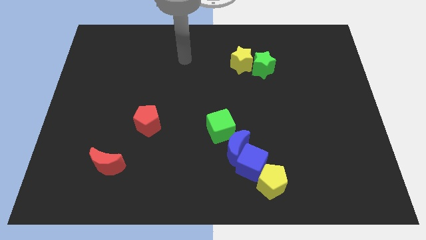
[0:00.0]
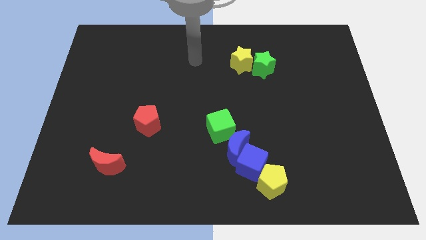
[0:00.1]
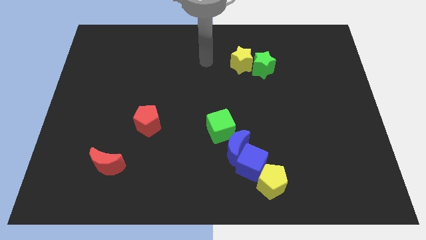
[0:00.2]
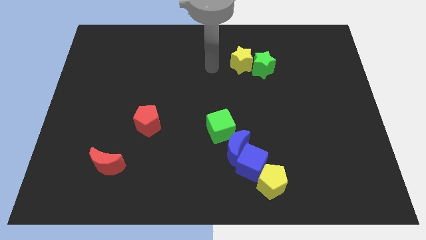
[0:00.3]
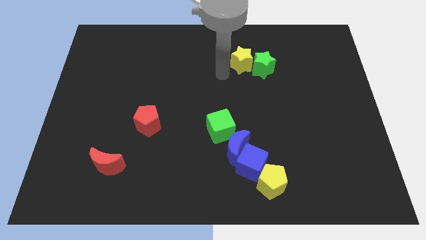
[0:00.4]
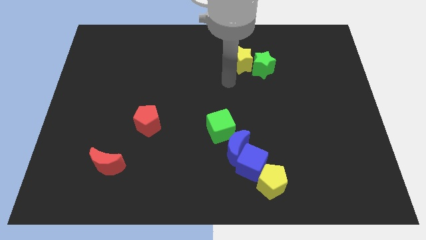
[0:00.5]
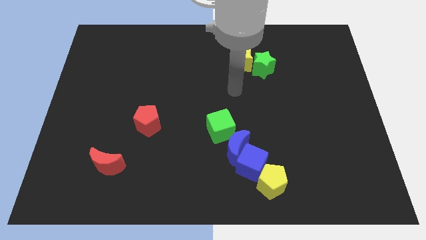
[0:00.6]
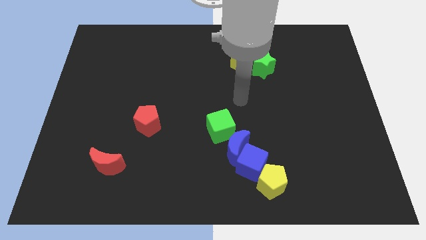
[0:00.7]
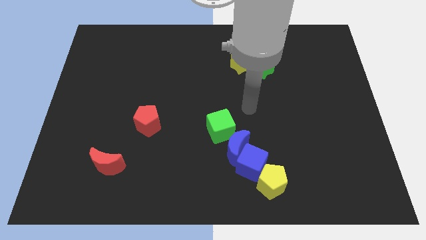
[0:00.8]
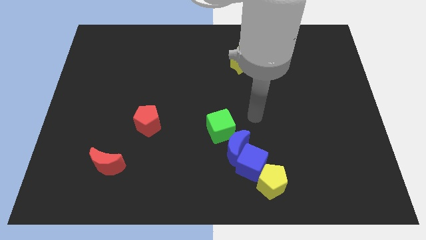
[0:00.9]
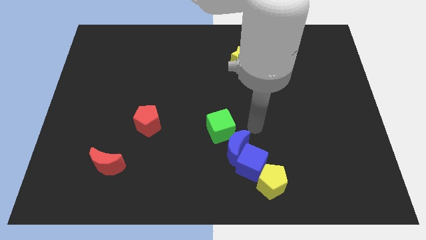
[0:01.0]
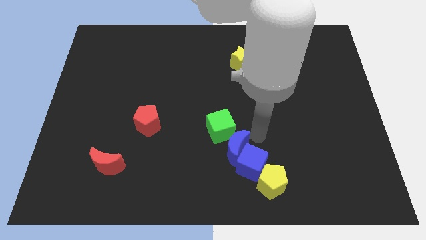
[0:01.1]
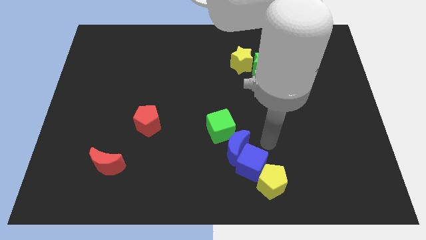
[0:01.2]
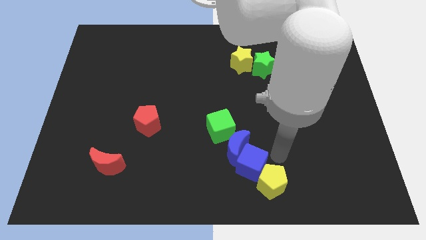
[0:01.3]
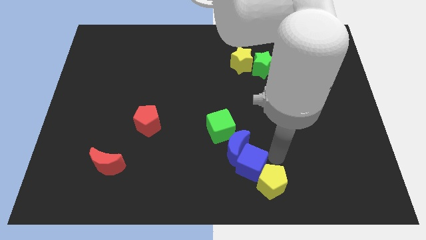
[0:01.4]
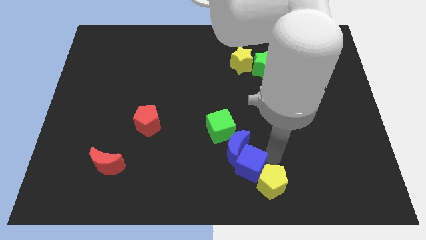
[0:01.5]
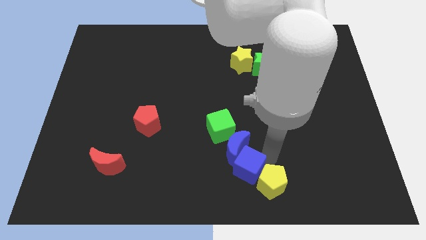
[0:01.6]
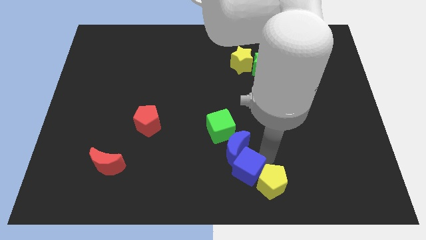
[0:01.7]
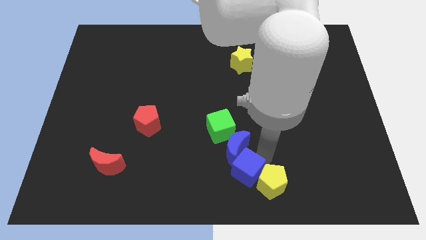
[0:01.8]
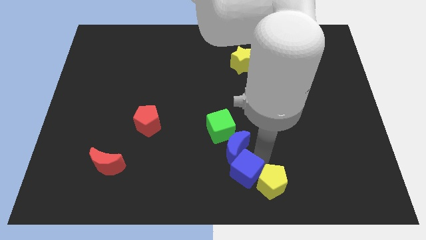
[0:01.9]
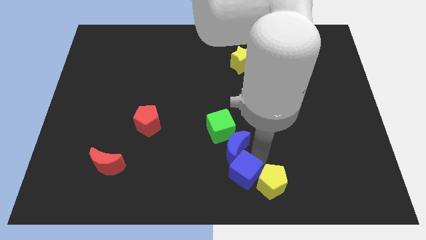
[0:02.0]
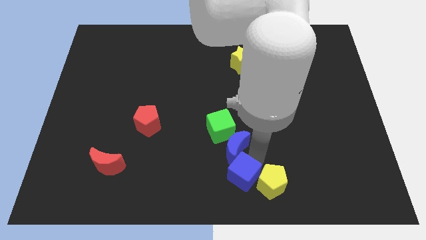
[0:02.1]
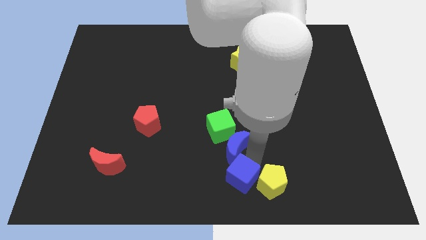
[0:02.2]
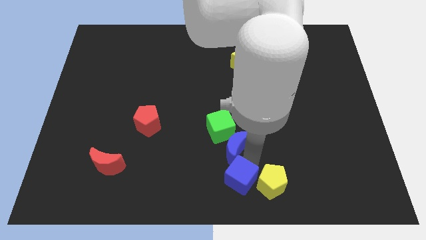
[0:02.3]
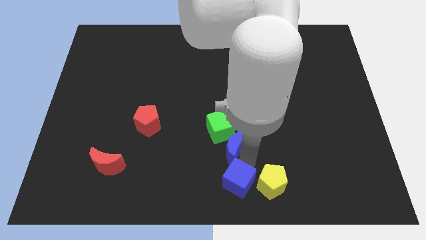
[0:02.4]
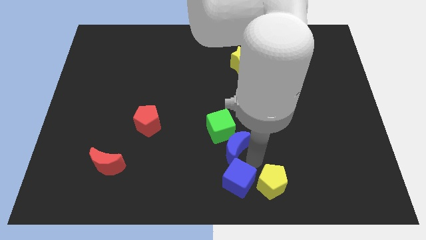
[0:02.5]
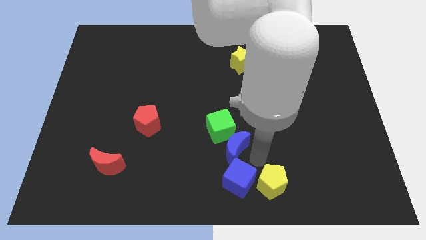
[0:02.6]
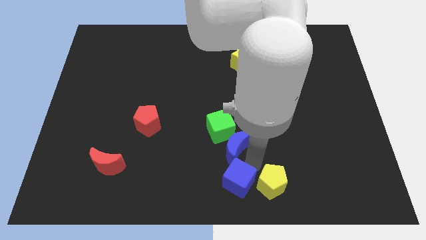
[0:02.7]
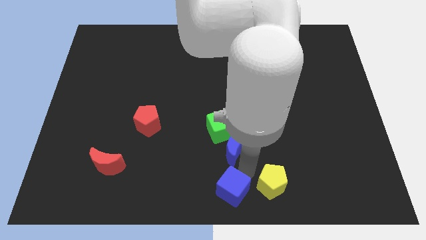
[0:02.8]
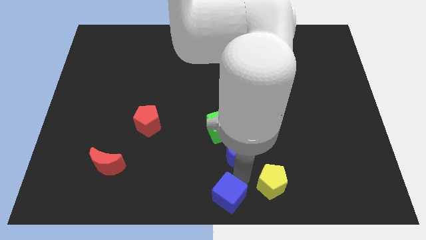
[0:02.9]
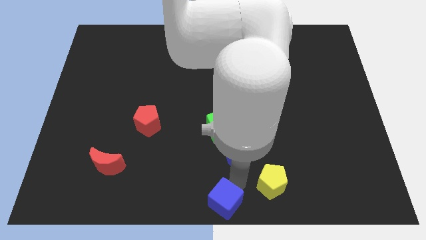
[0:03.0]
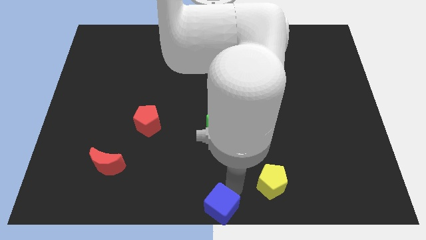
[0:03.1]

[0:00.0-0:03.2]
separate the blue cube from the blue moon and yellow pentagon

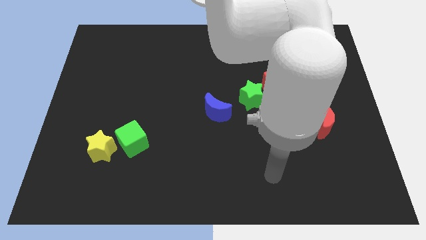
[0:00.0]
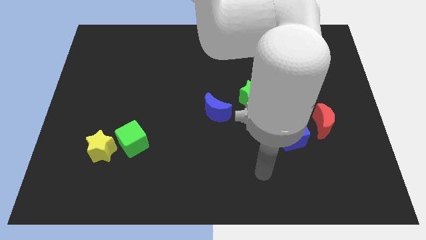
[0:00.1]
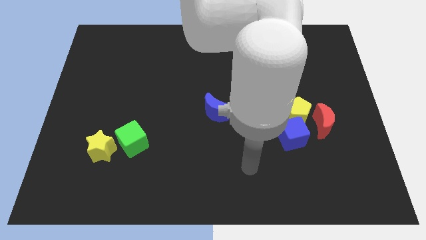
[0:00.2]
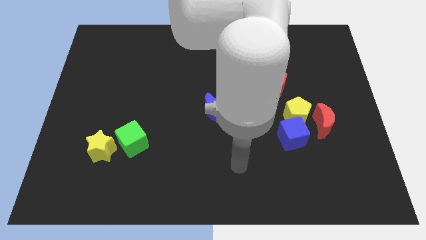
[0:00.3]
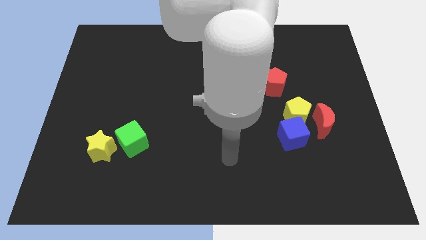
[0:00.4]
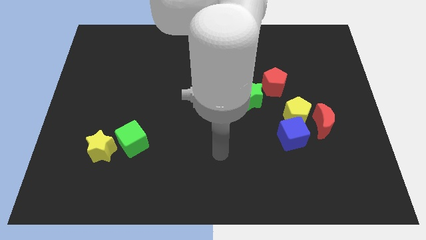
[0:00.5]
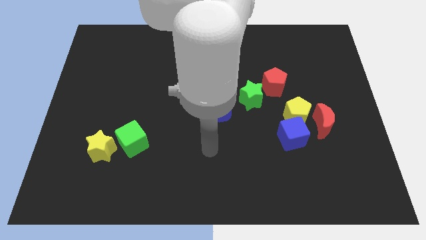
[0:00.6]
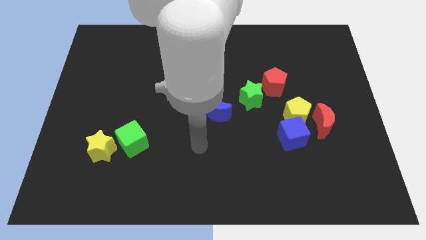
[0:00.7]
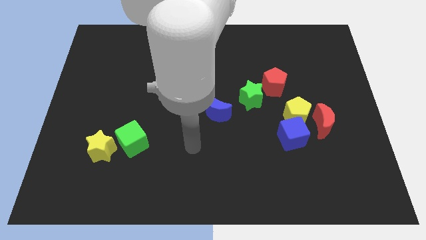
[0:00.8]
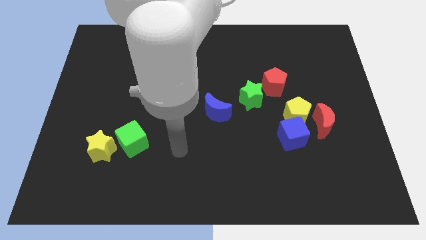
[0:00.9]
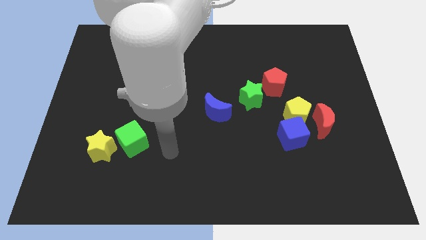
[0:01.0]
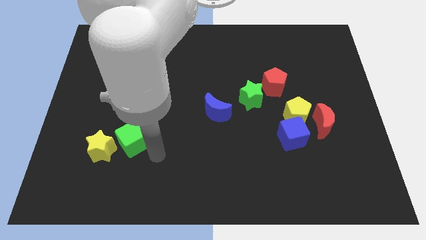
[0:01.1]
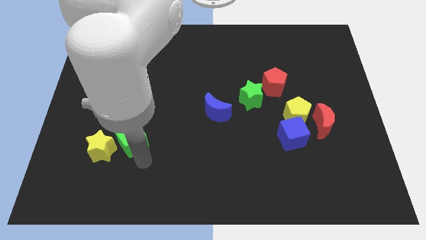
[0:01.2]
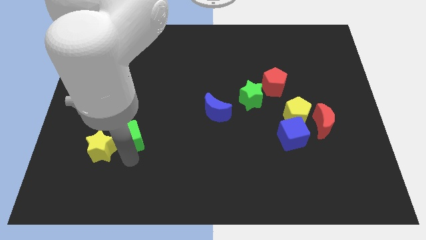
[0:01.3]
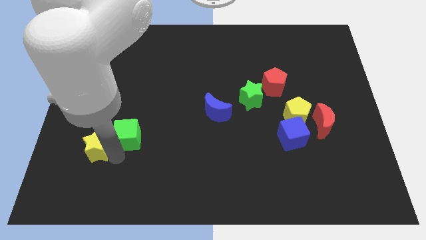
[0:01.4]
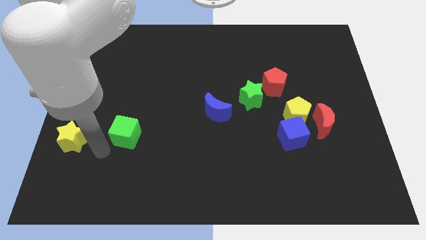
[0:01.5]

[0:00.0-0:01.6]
pull the green cube apart from the yellow star

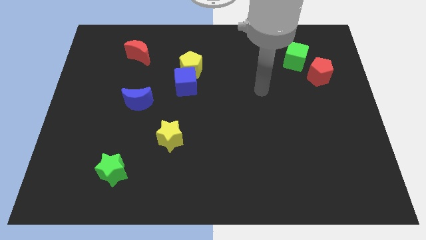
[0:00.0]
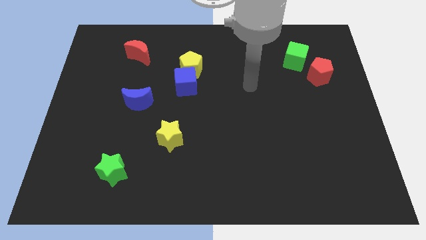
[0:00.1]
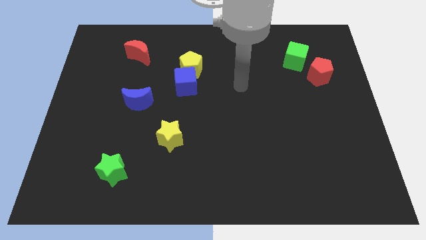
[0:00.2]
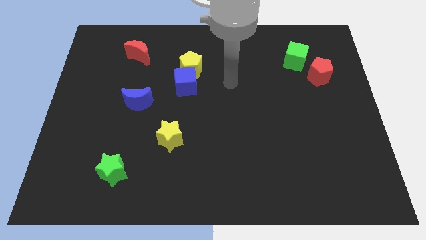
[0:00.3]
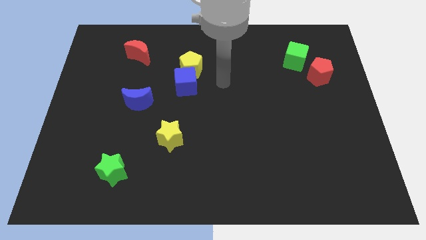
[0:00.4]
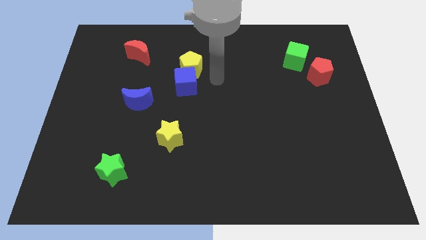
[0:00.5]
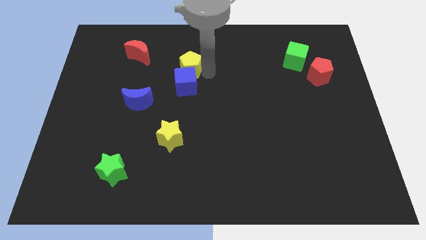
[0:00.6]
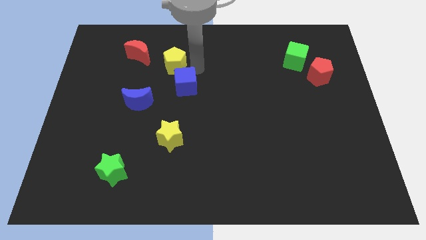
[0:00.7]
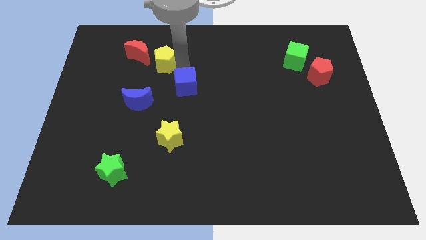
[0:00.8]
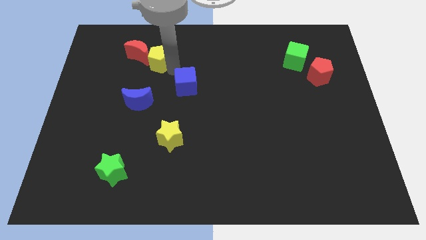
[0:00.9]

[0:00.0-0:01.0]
move the blue cube away from the yellow pentagon

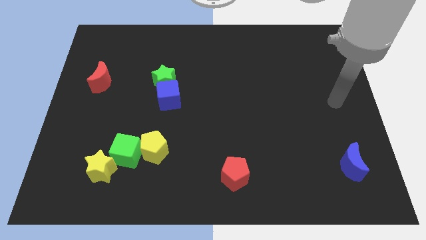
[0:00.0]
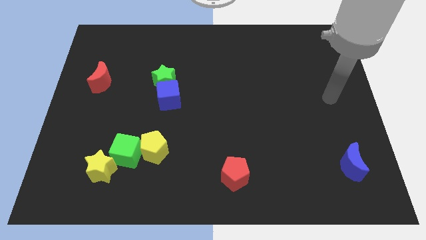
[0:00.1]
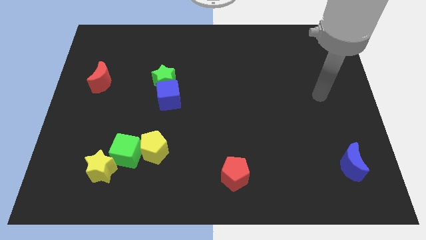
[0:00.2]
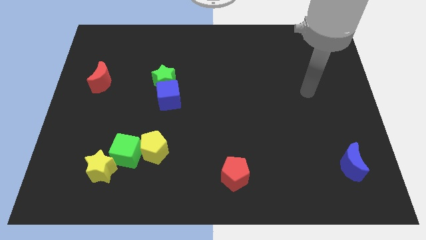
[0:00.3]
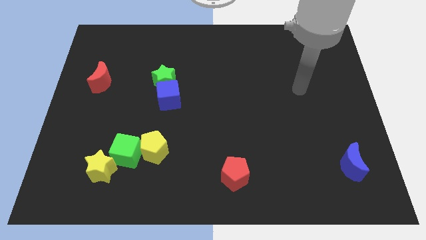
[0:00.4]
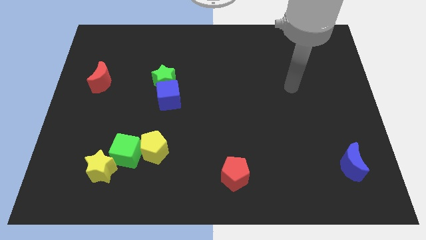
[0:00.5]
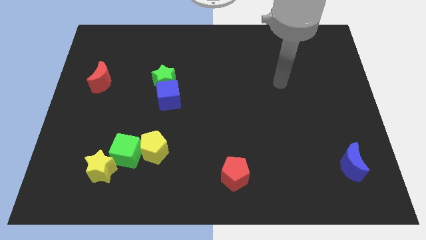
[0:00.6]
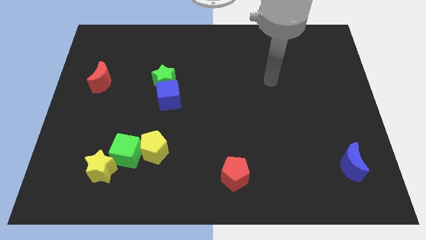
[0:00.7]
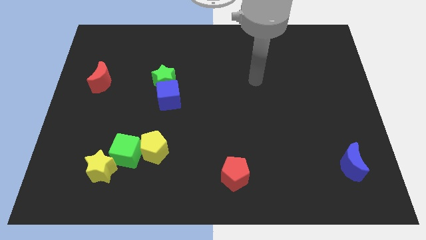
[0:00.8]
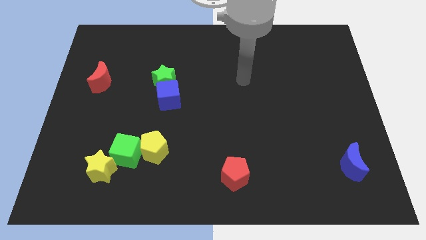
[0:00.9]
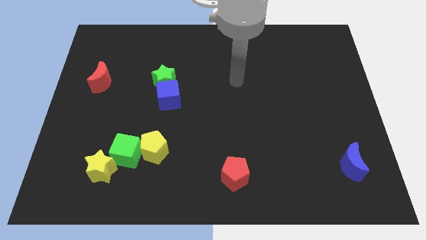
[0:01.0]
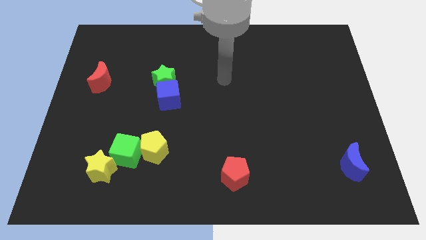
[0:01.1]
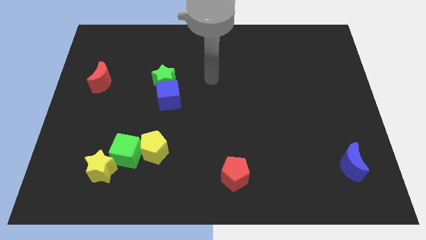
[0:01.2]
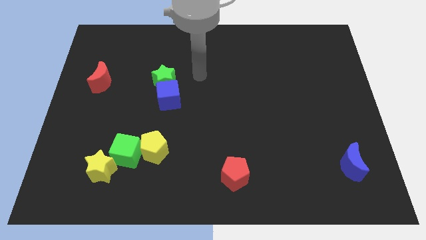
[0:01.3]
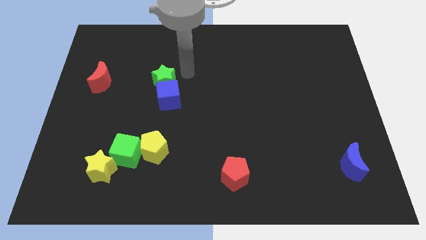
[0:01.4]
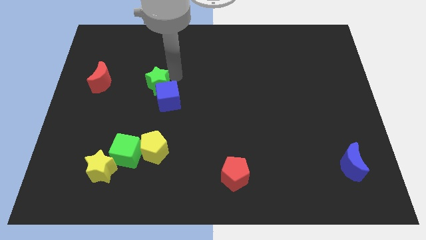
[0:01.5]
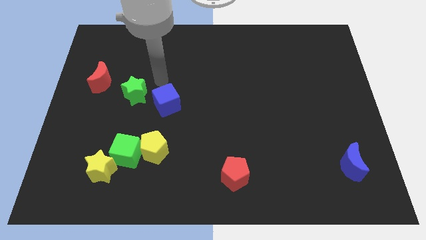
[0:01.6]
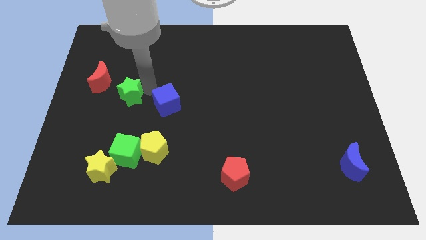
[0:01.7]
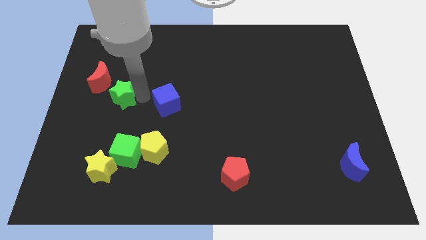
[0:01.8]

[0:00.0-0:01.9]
separate the blue cube from the green star

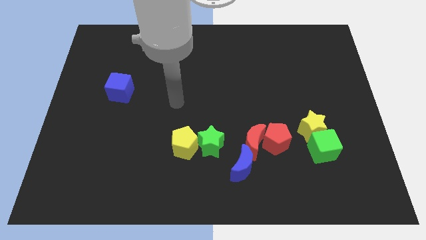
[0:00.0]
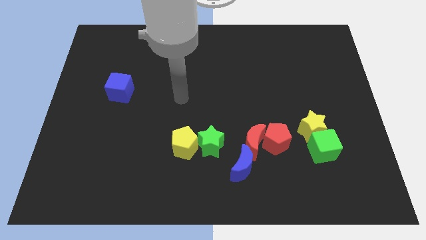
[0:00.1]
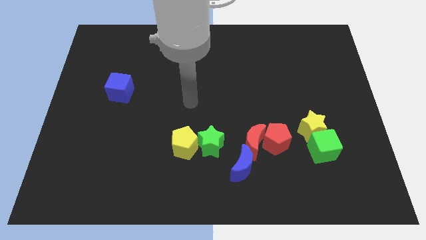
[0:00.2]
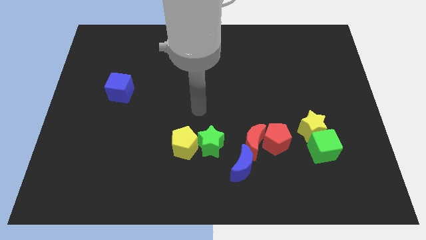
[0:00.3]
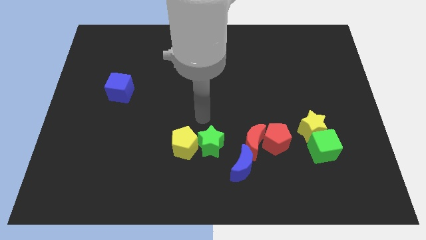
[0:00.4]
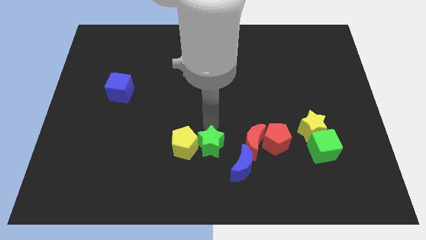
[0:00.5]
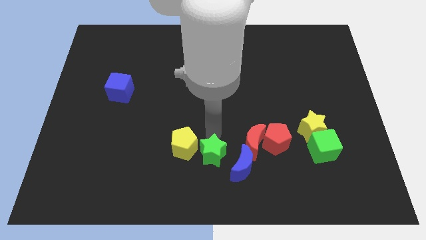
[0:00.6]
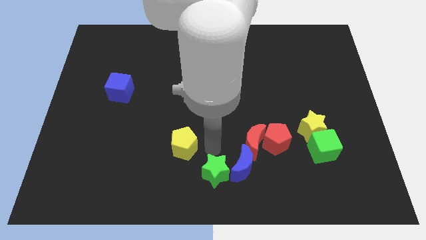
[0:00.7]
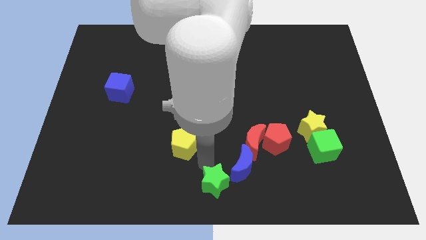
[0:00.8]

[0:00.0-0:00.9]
separate the yellow pentagon from the green star

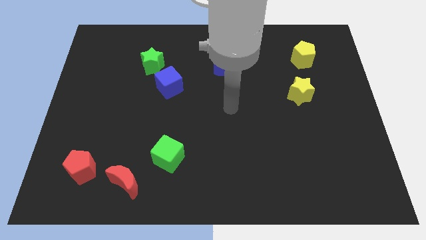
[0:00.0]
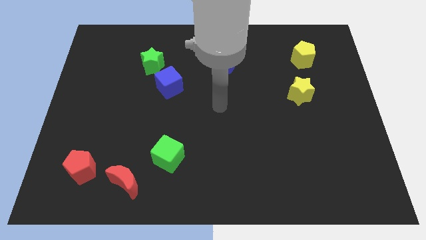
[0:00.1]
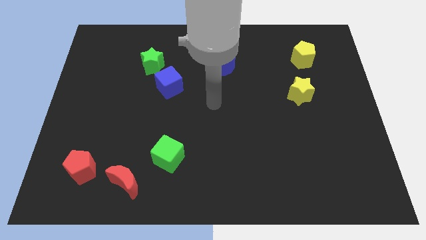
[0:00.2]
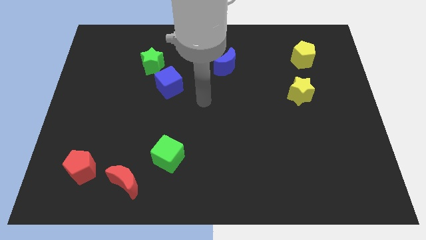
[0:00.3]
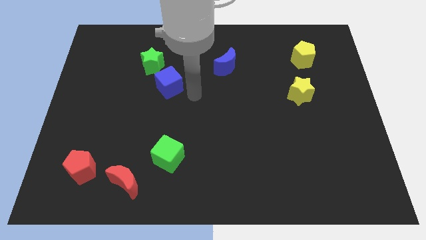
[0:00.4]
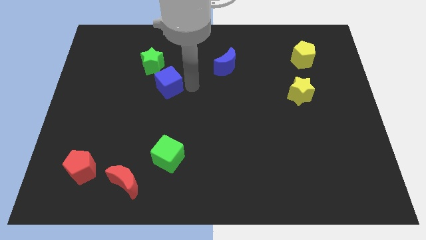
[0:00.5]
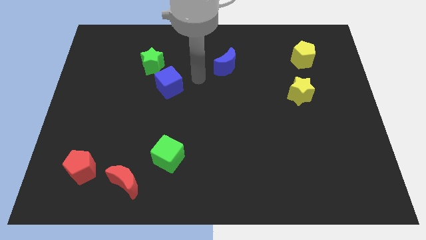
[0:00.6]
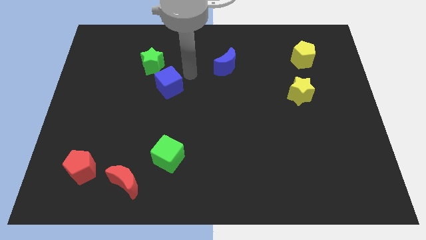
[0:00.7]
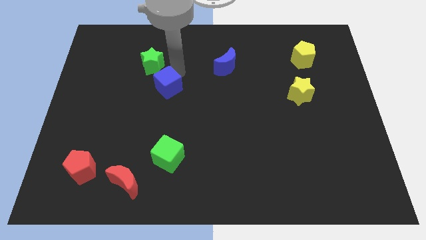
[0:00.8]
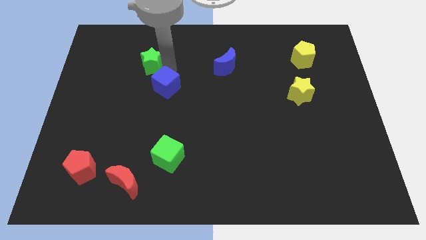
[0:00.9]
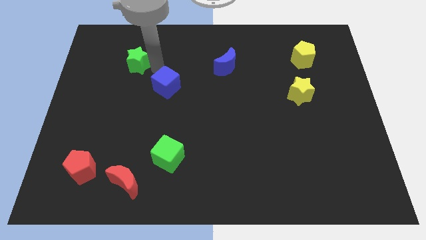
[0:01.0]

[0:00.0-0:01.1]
move the blue cube away from the green star
